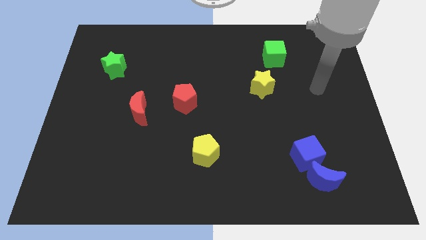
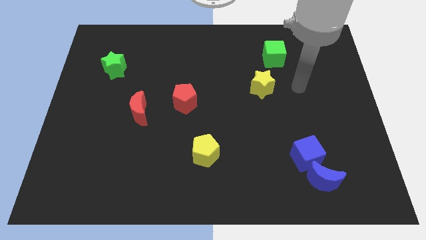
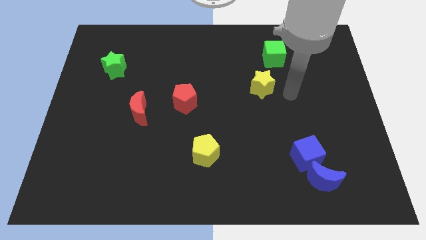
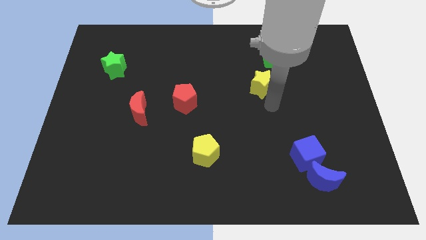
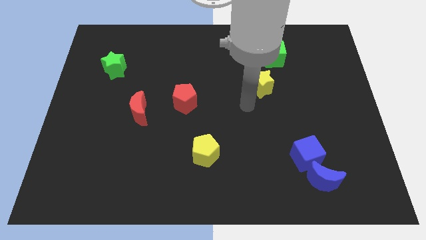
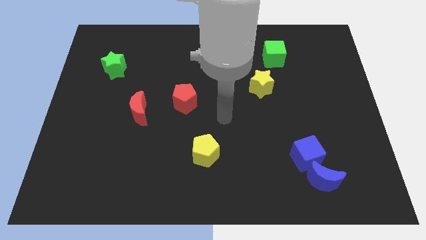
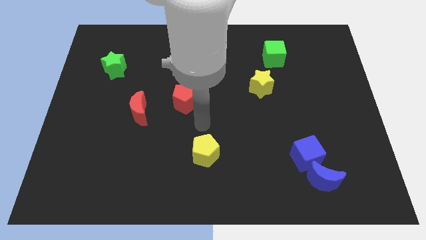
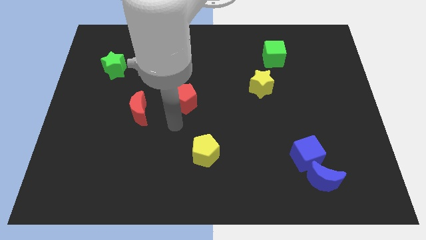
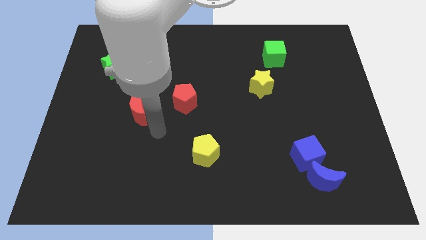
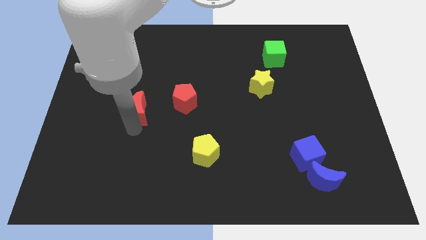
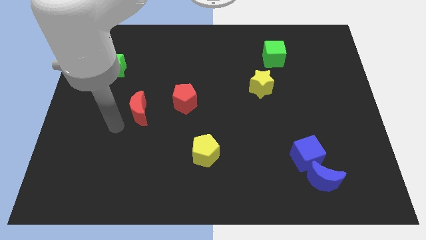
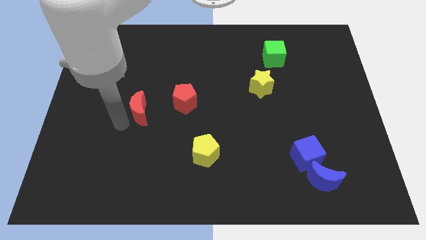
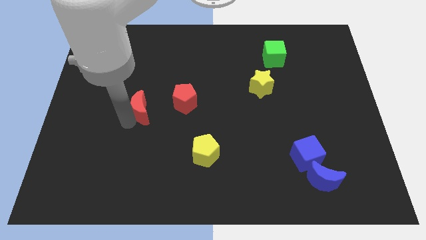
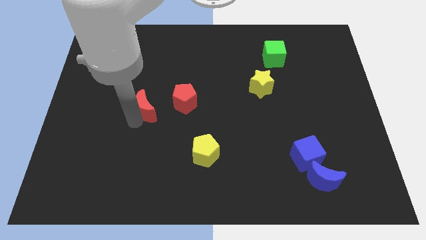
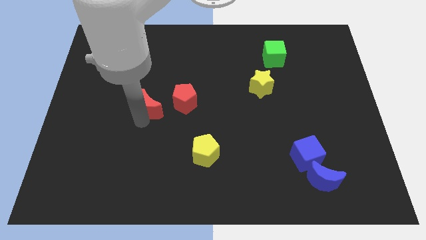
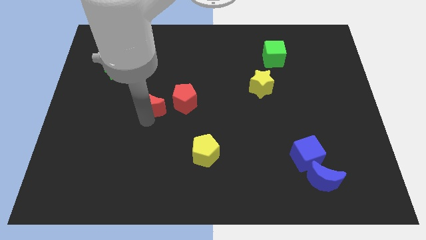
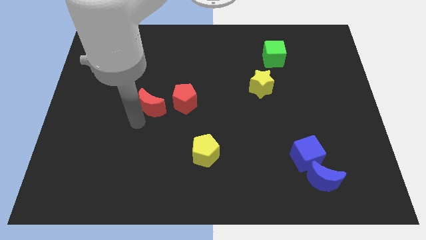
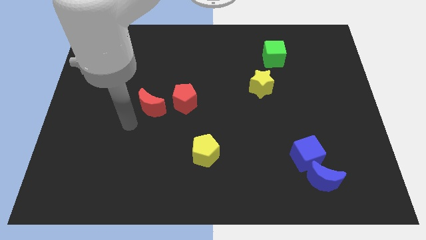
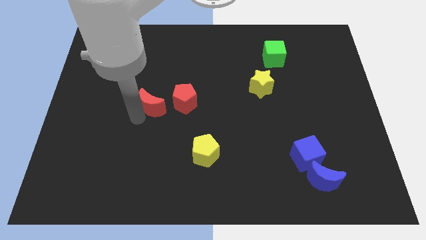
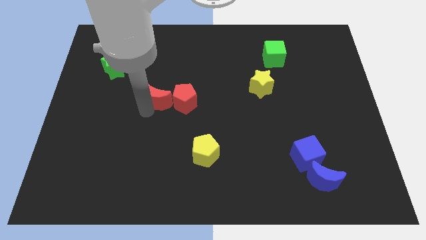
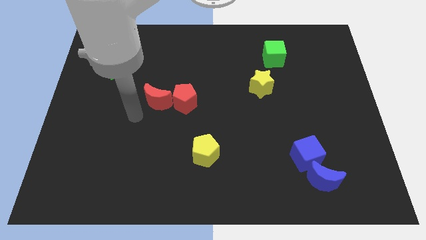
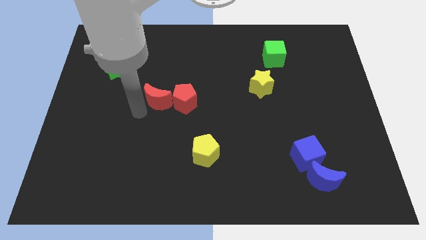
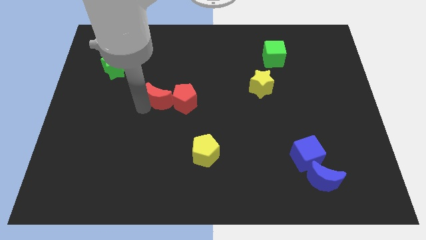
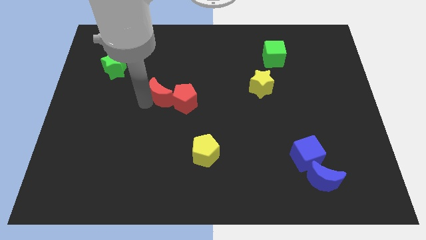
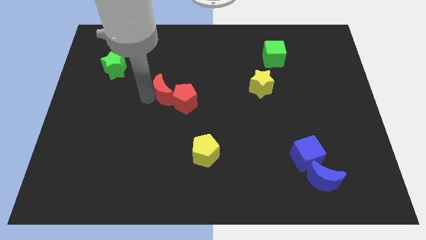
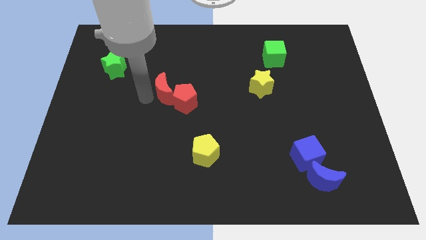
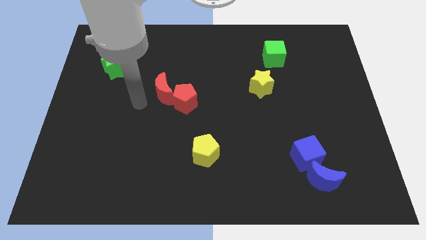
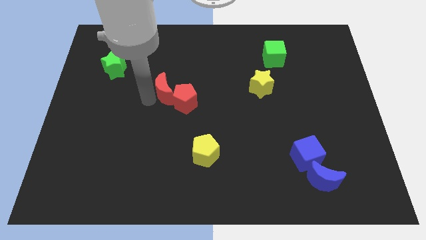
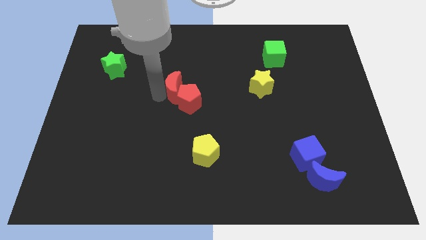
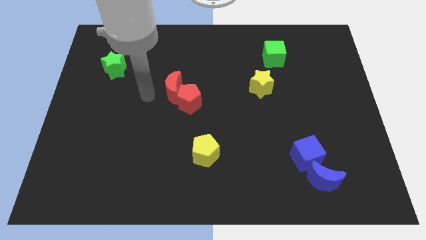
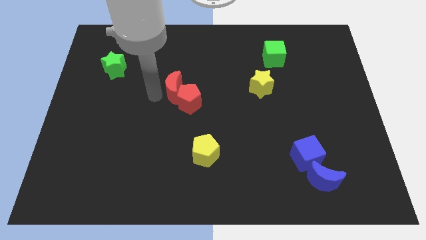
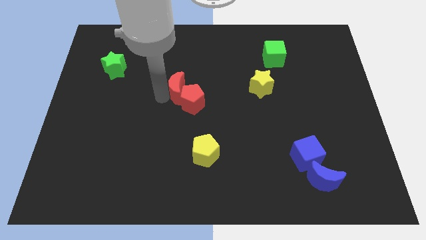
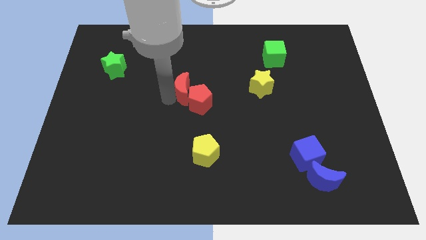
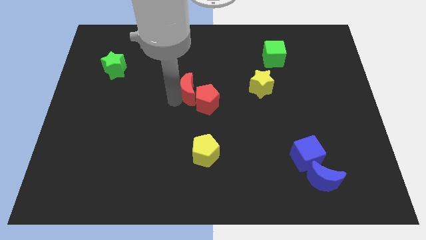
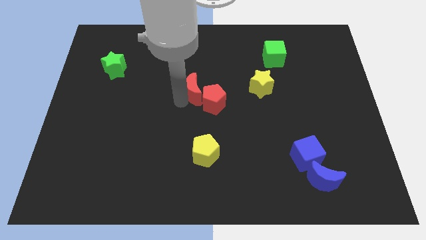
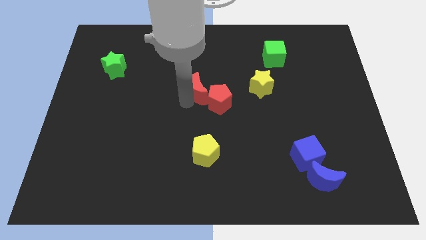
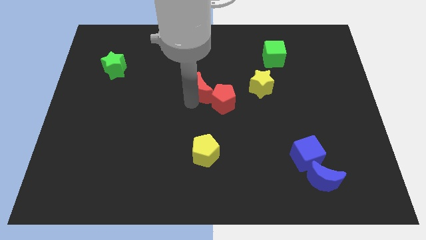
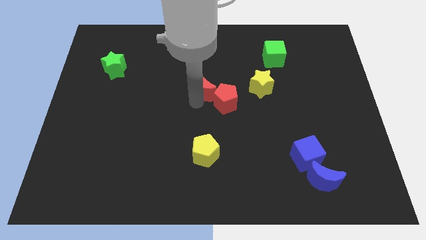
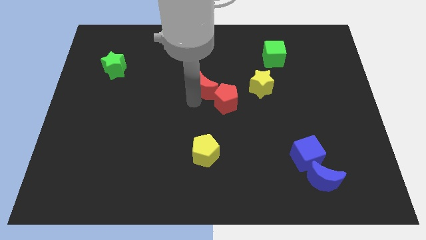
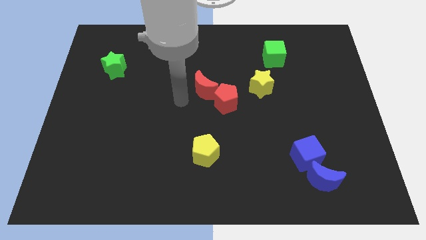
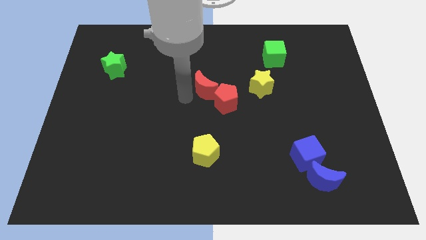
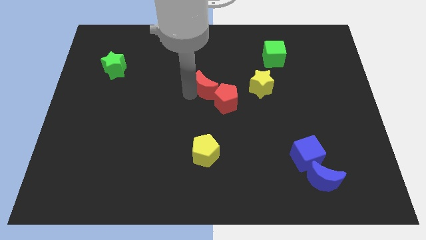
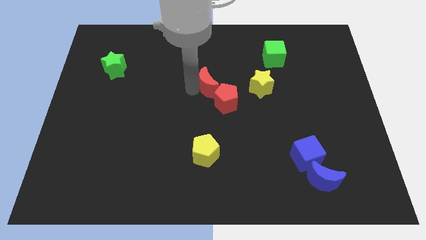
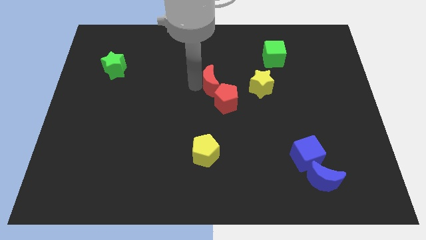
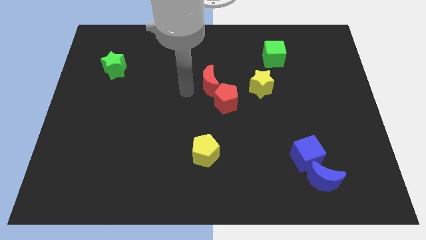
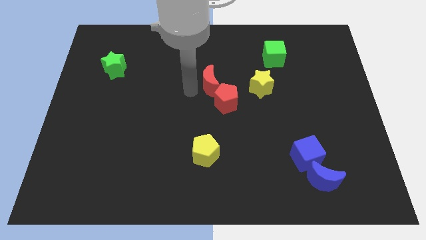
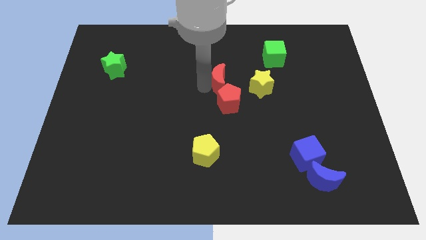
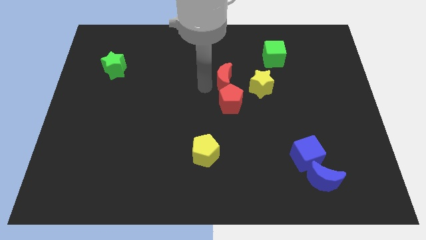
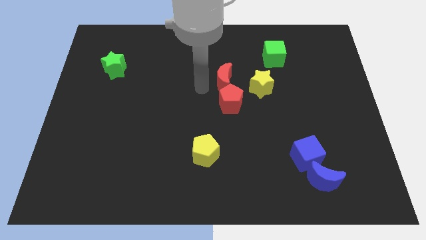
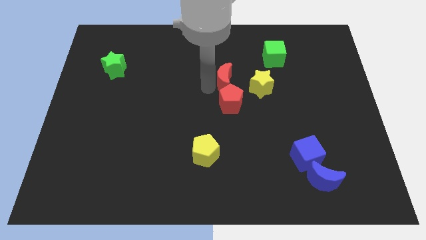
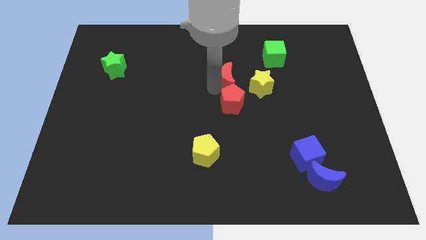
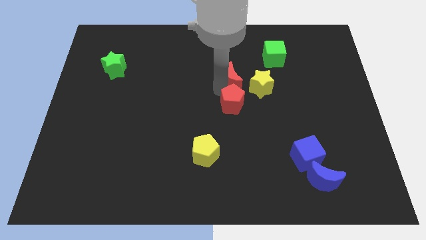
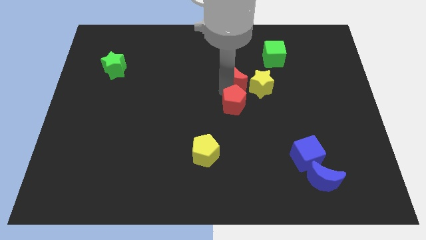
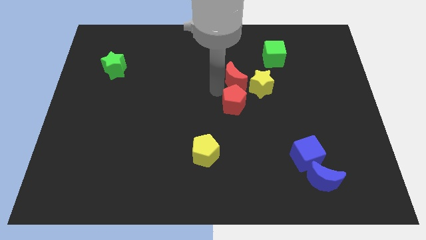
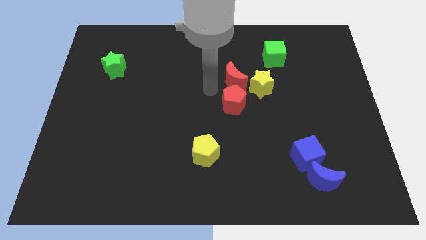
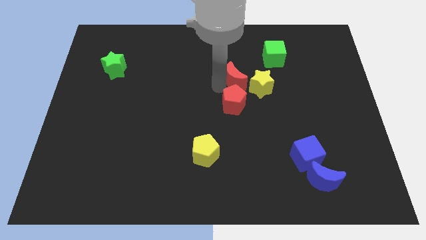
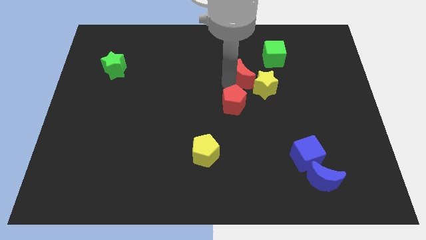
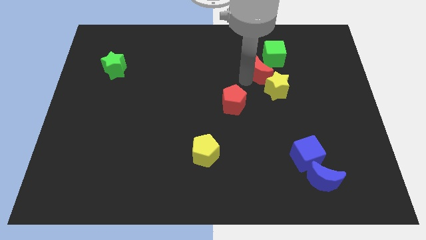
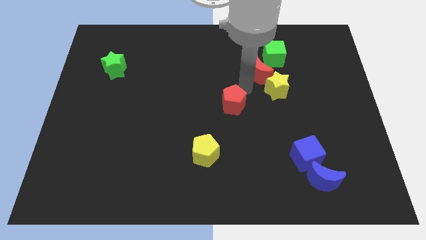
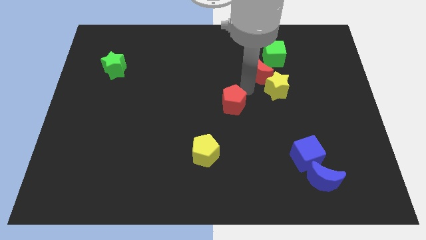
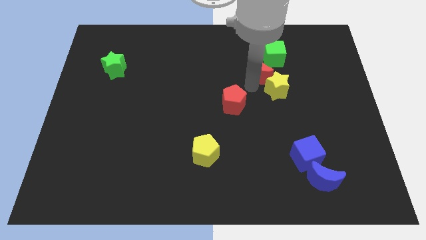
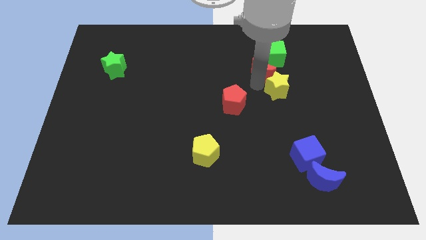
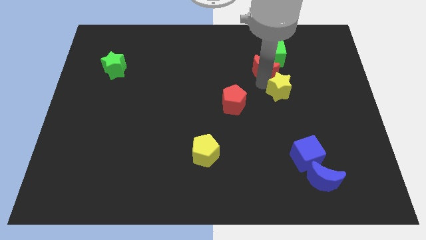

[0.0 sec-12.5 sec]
push the red moon to the green cube
